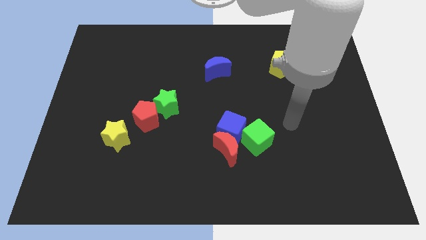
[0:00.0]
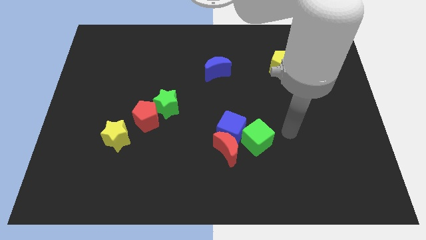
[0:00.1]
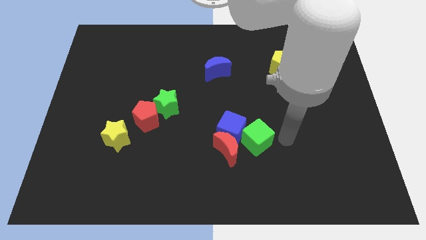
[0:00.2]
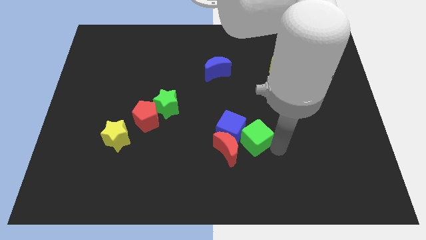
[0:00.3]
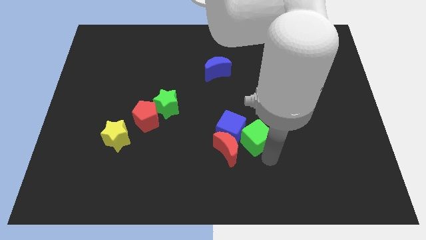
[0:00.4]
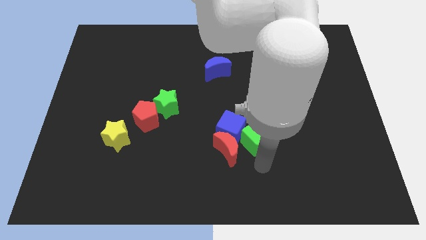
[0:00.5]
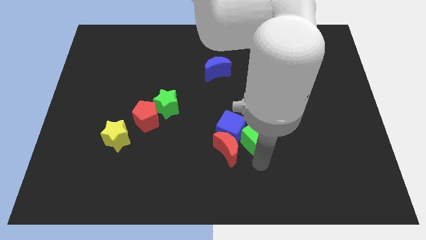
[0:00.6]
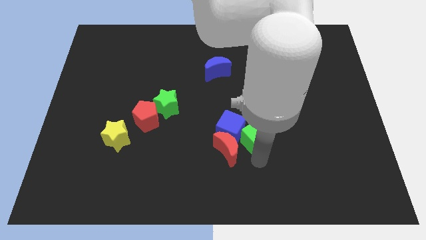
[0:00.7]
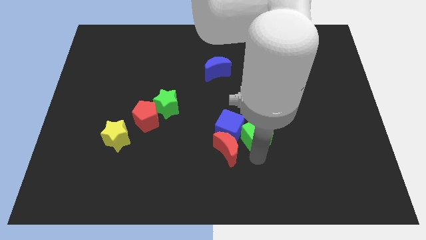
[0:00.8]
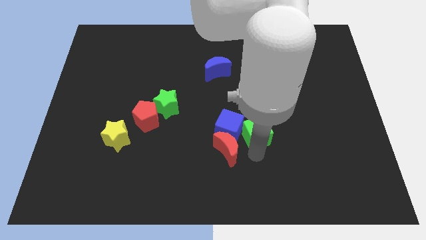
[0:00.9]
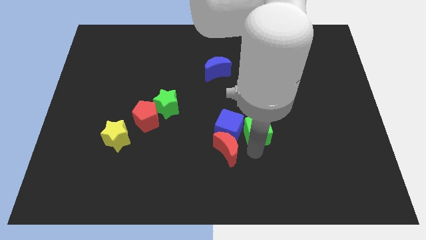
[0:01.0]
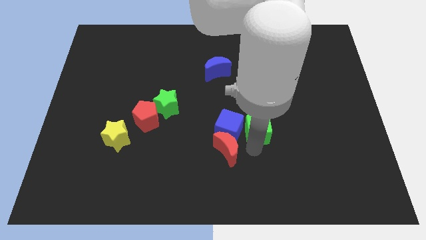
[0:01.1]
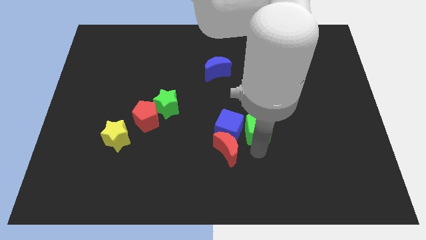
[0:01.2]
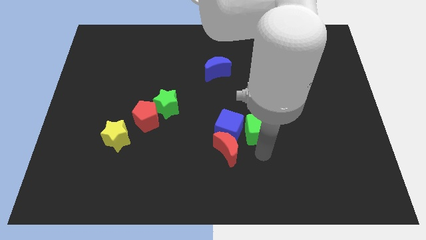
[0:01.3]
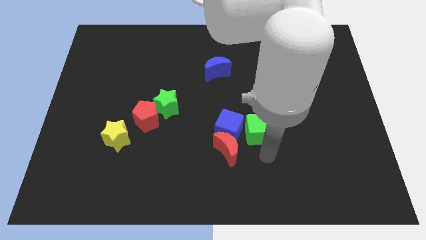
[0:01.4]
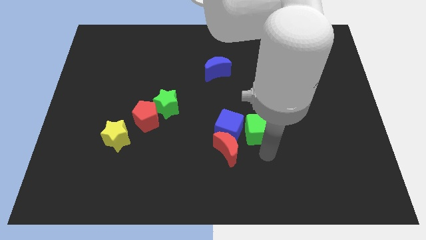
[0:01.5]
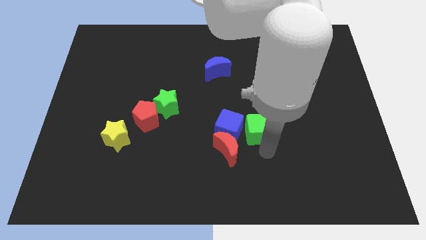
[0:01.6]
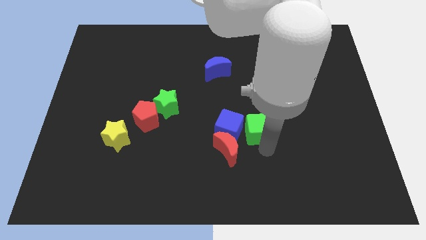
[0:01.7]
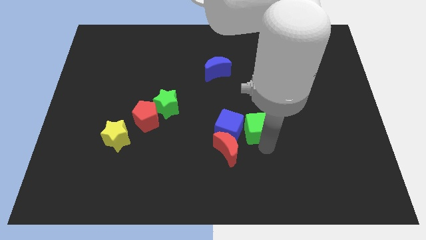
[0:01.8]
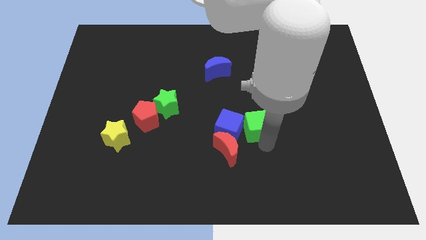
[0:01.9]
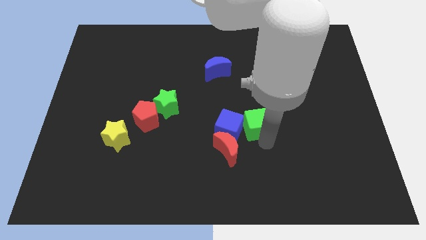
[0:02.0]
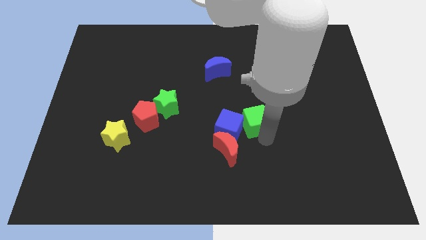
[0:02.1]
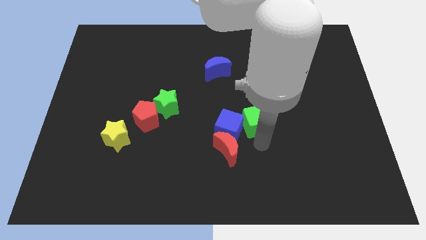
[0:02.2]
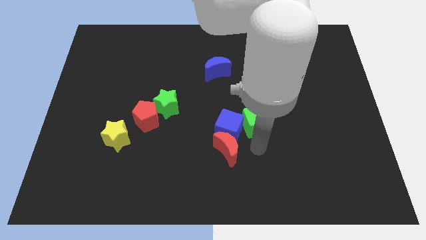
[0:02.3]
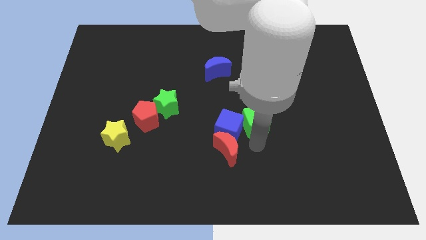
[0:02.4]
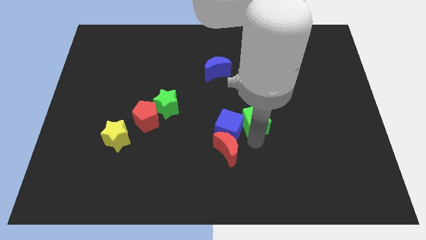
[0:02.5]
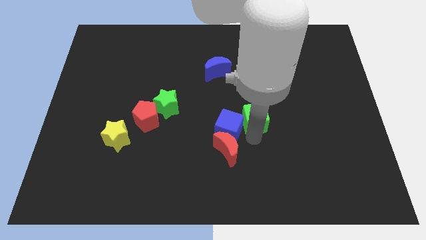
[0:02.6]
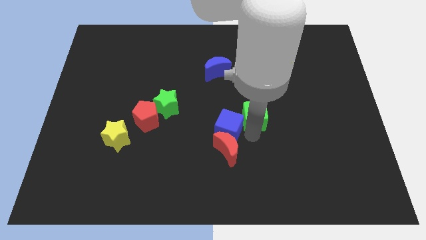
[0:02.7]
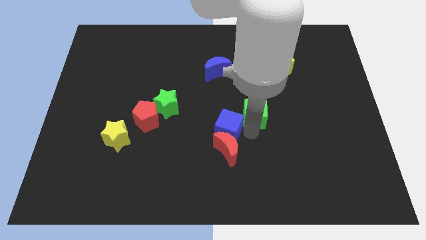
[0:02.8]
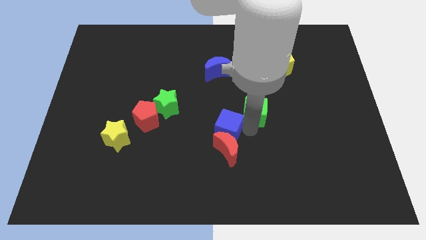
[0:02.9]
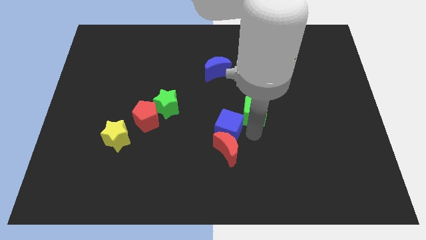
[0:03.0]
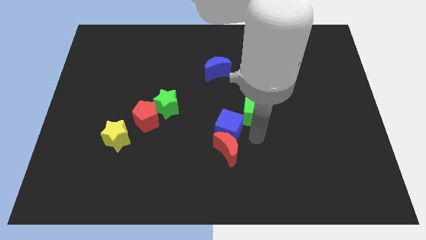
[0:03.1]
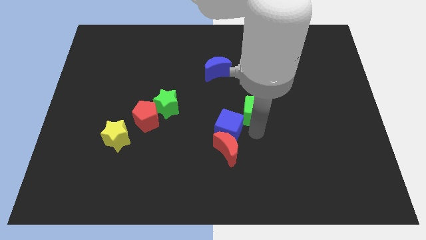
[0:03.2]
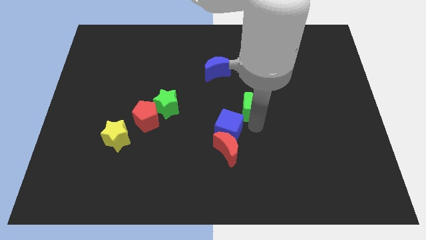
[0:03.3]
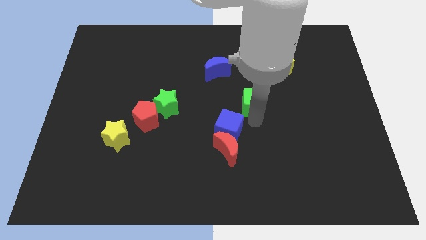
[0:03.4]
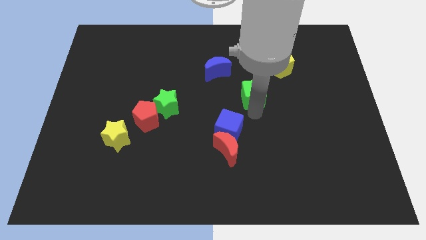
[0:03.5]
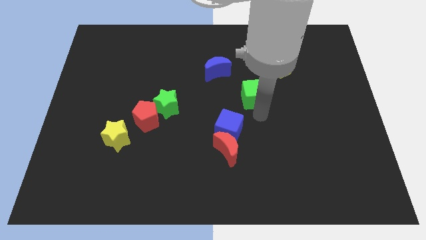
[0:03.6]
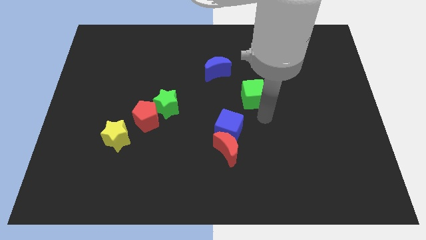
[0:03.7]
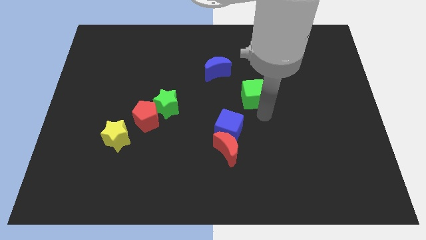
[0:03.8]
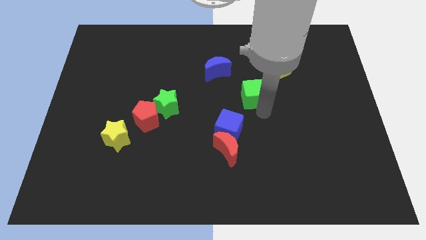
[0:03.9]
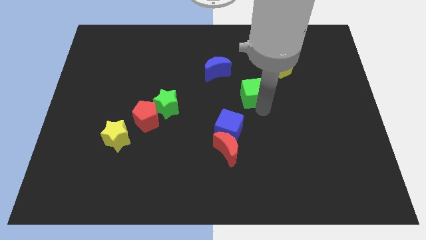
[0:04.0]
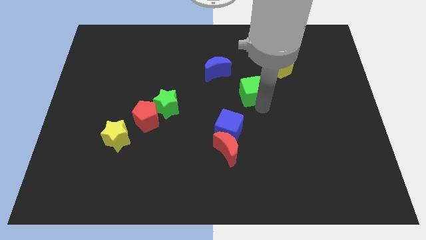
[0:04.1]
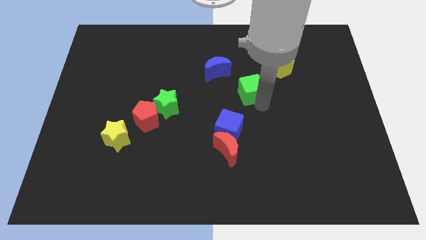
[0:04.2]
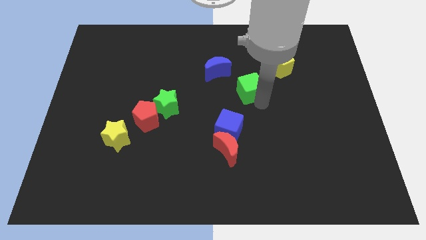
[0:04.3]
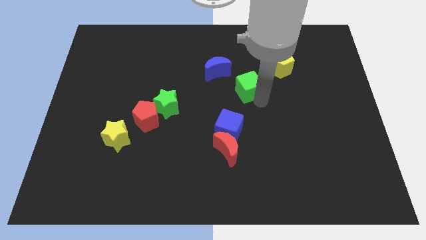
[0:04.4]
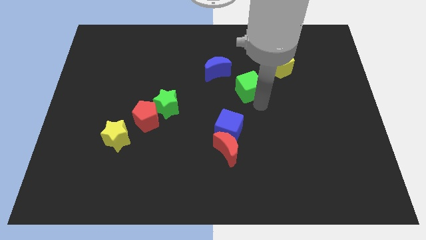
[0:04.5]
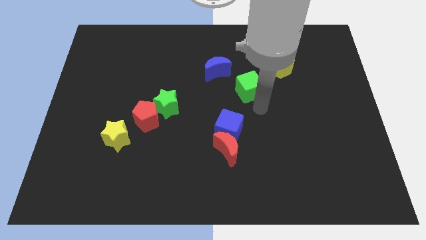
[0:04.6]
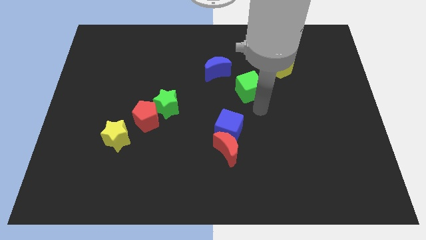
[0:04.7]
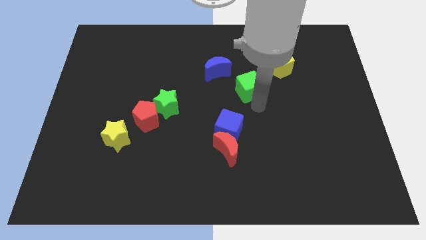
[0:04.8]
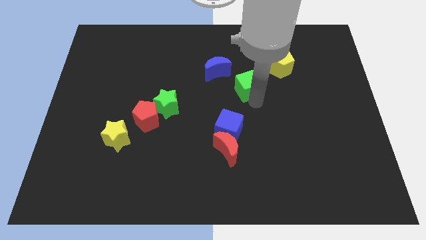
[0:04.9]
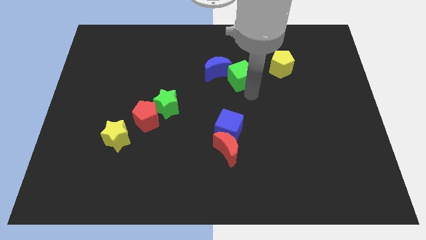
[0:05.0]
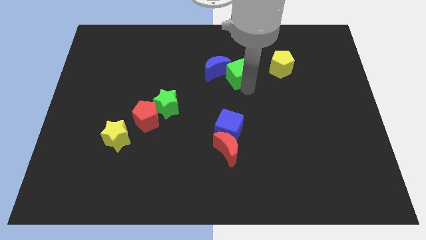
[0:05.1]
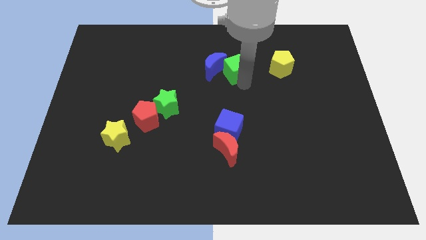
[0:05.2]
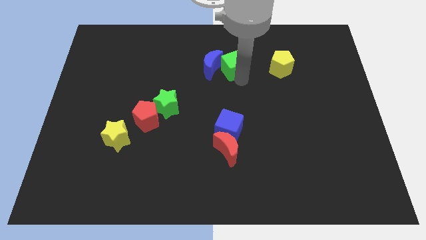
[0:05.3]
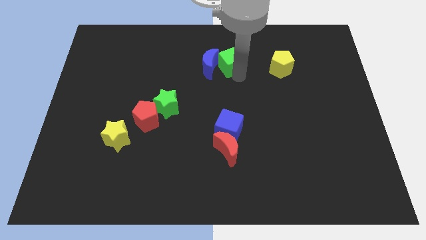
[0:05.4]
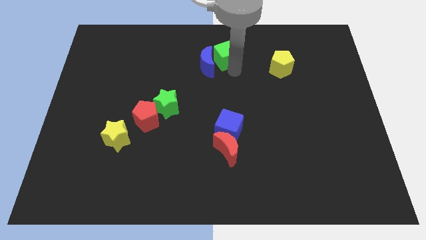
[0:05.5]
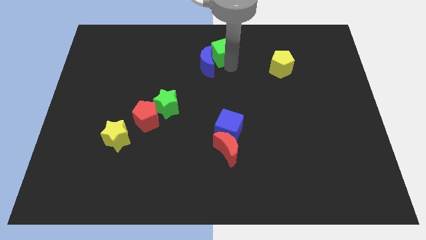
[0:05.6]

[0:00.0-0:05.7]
push the green cube to the top
